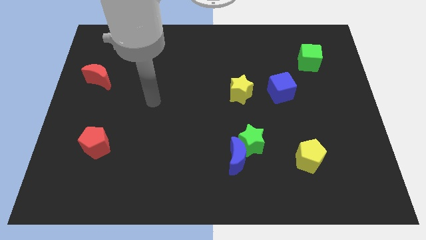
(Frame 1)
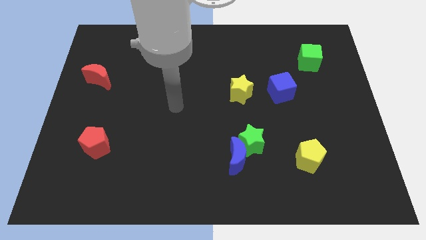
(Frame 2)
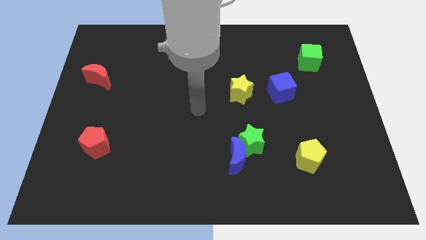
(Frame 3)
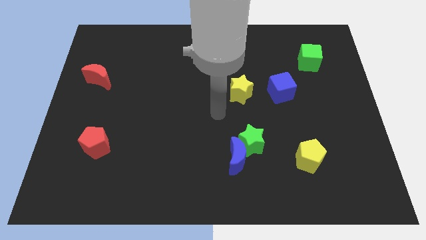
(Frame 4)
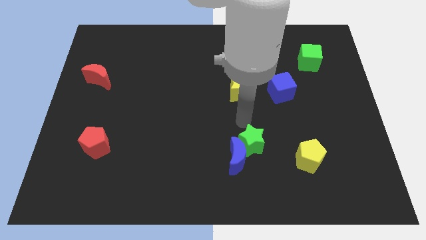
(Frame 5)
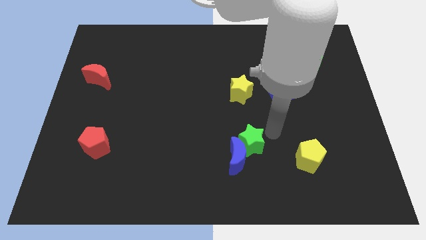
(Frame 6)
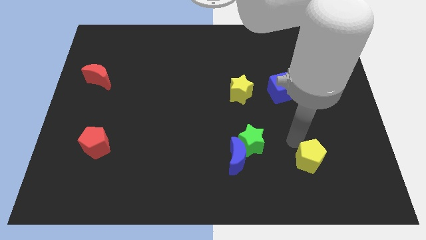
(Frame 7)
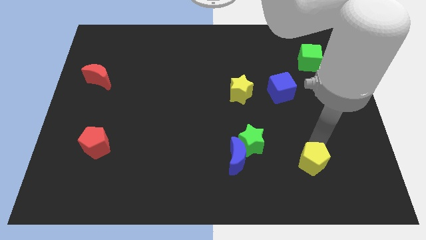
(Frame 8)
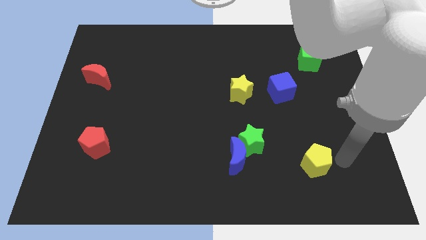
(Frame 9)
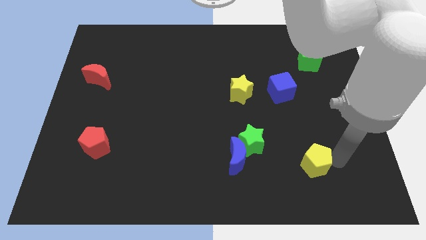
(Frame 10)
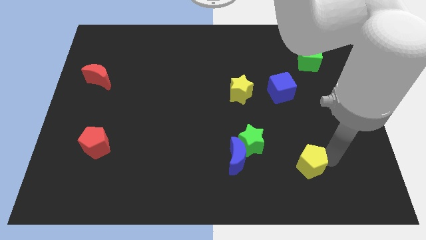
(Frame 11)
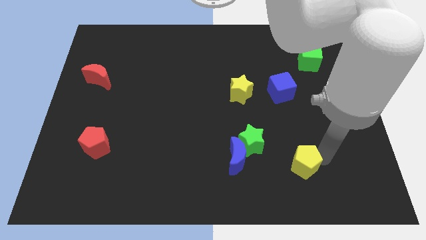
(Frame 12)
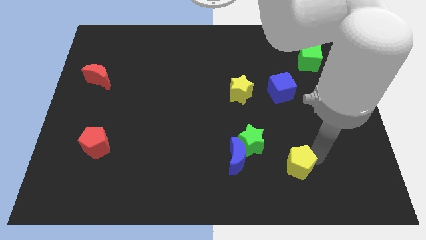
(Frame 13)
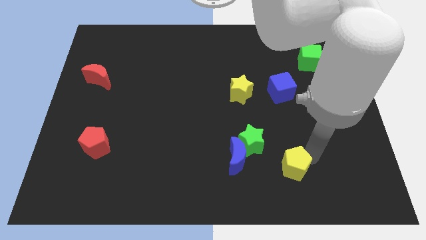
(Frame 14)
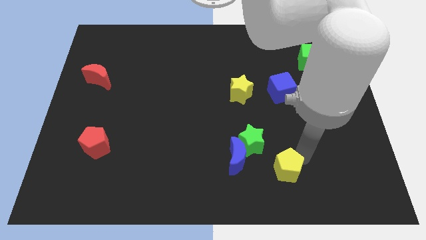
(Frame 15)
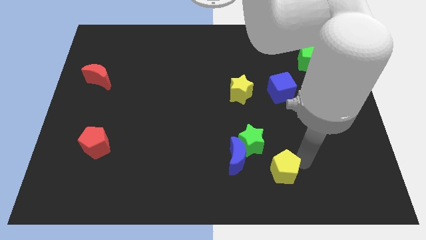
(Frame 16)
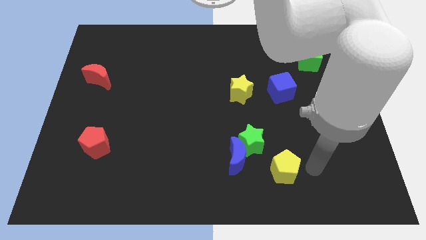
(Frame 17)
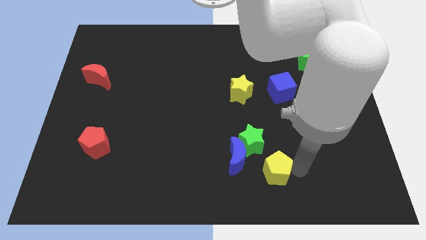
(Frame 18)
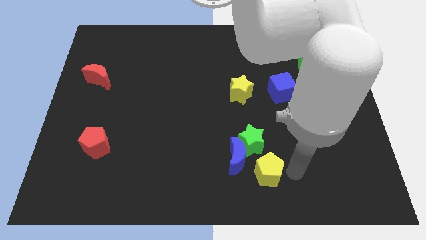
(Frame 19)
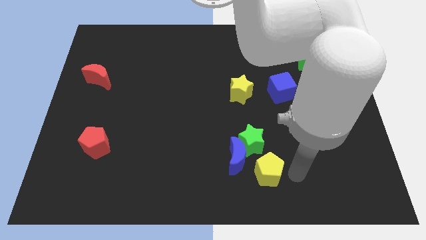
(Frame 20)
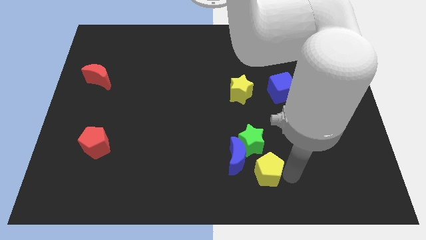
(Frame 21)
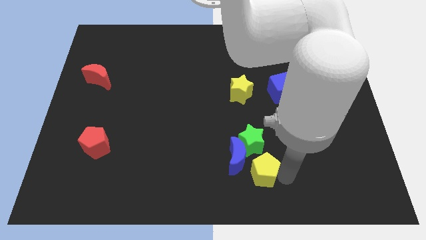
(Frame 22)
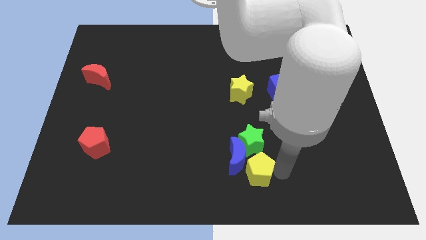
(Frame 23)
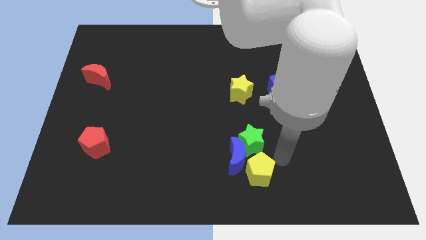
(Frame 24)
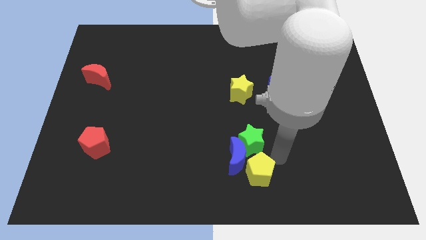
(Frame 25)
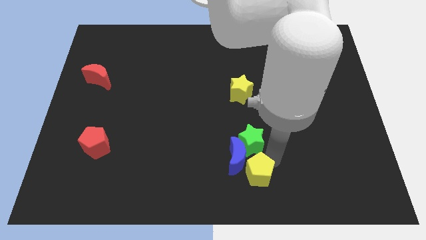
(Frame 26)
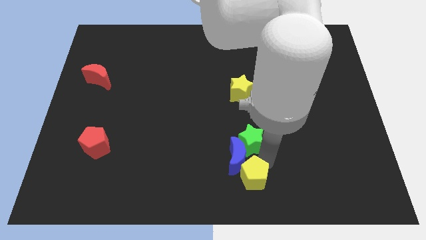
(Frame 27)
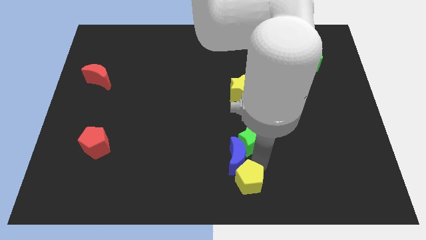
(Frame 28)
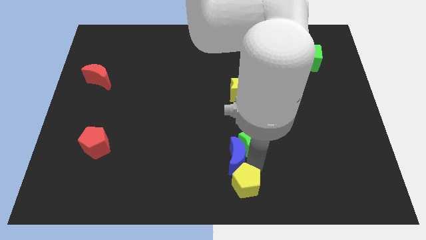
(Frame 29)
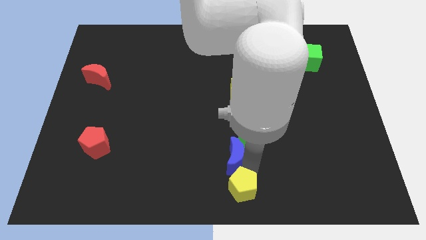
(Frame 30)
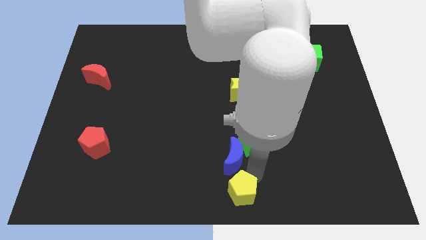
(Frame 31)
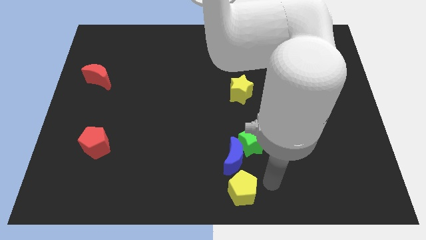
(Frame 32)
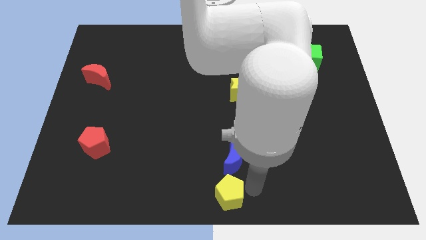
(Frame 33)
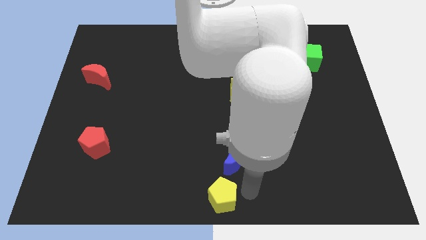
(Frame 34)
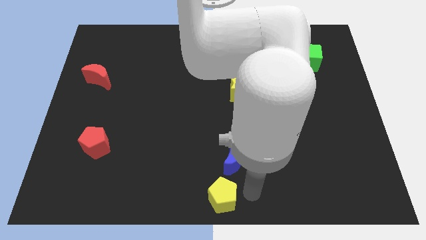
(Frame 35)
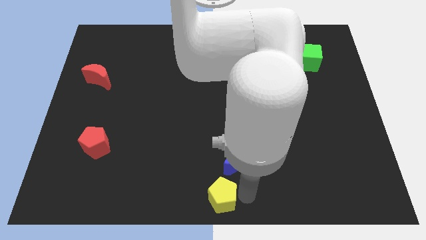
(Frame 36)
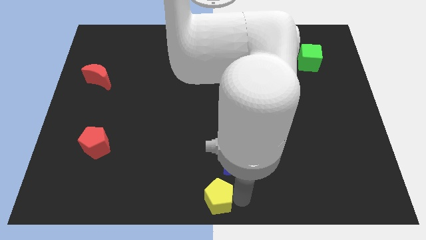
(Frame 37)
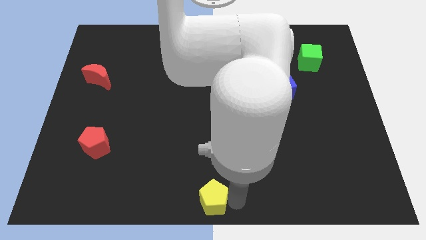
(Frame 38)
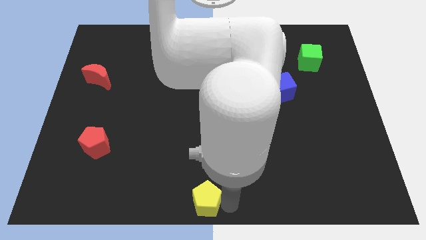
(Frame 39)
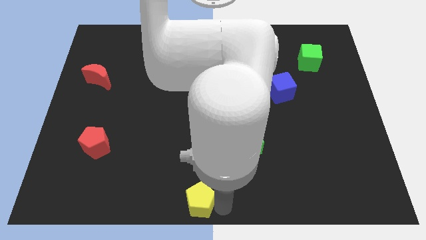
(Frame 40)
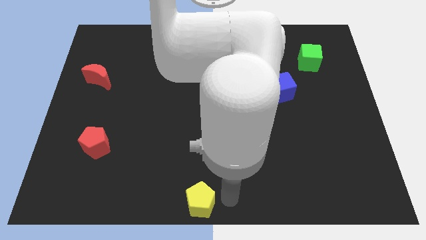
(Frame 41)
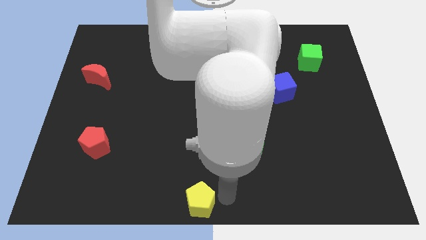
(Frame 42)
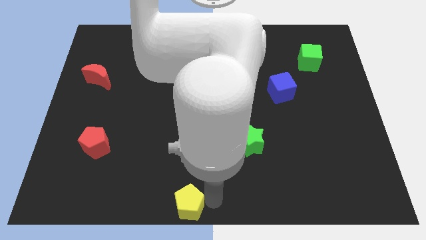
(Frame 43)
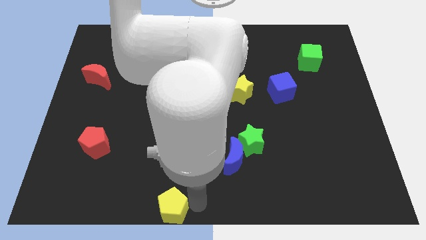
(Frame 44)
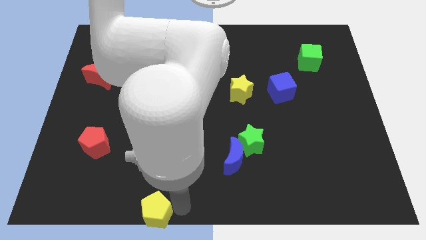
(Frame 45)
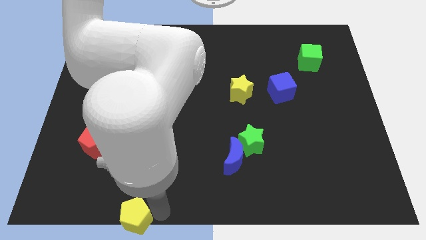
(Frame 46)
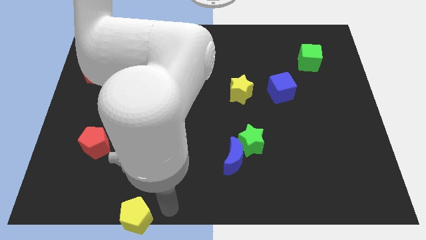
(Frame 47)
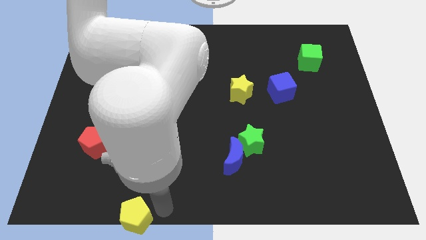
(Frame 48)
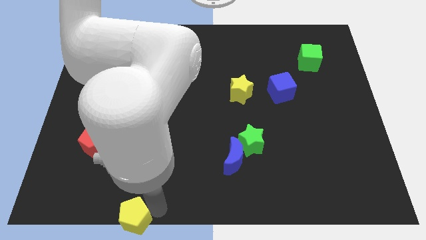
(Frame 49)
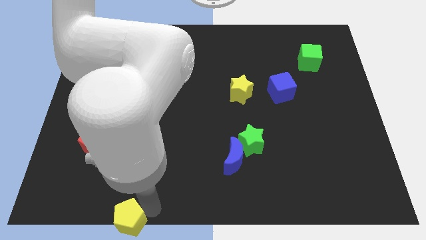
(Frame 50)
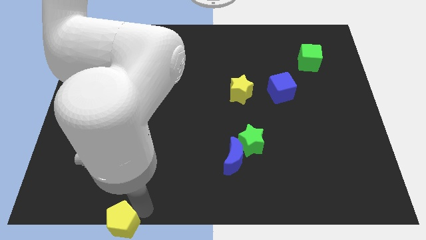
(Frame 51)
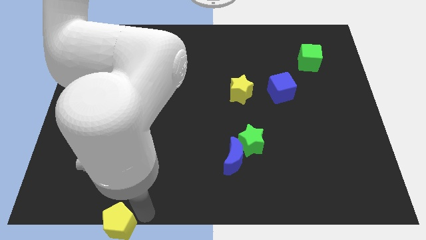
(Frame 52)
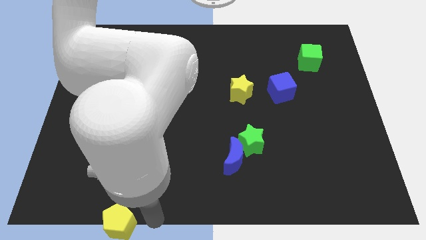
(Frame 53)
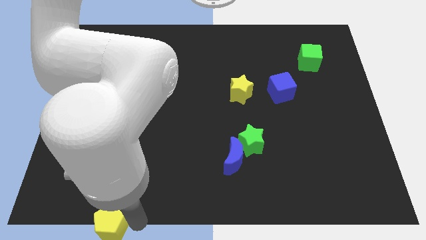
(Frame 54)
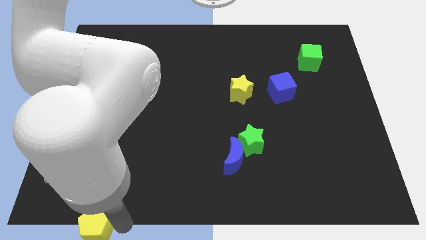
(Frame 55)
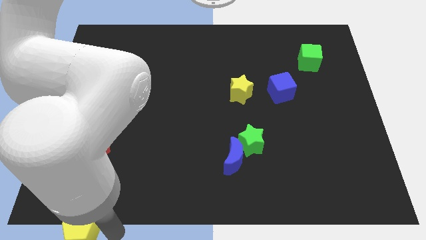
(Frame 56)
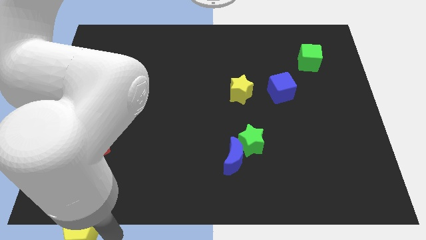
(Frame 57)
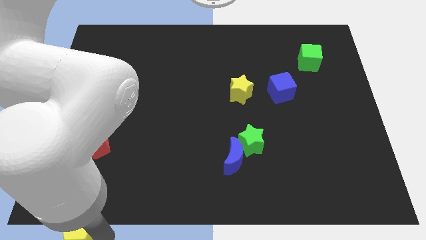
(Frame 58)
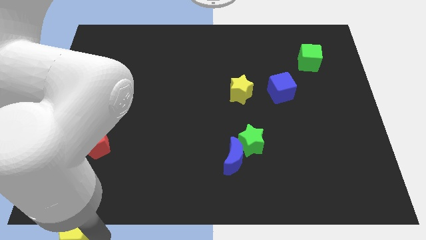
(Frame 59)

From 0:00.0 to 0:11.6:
push the yellow pentagon to the bottom left

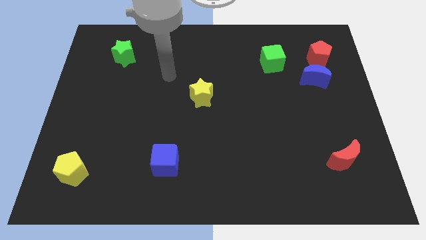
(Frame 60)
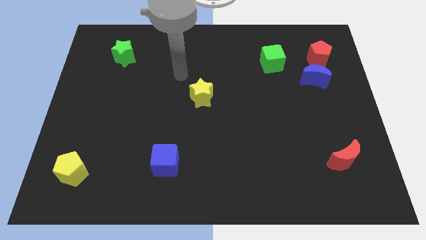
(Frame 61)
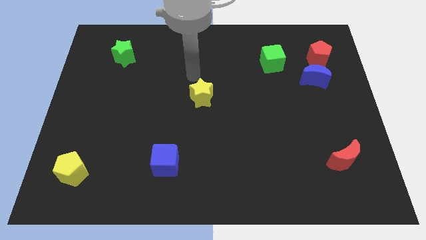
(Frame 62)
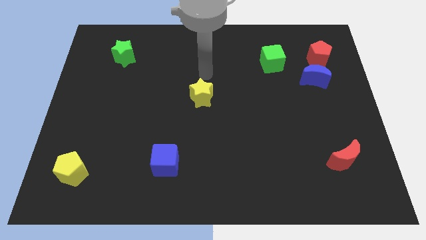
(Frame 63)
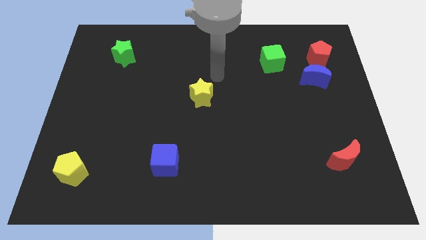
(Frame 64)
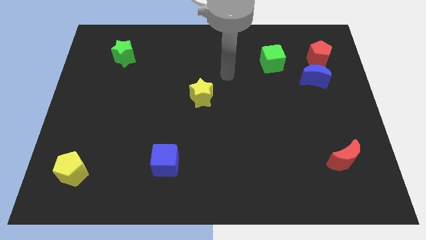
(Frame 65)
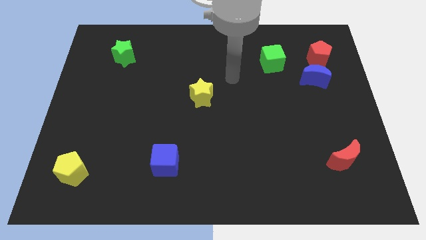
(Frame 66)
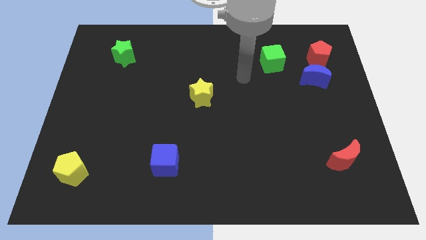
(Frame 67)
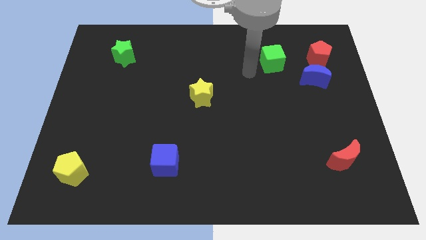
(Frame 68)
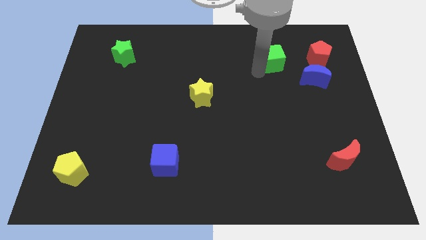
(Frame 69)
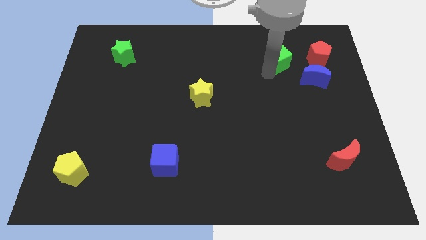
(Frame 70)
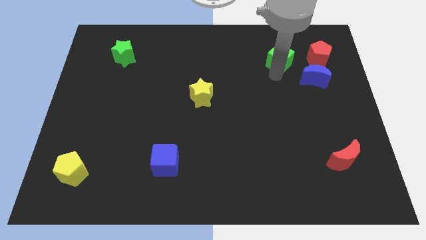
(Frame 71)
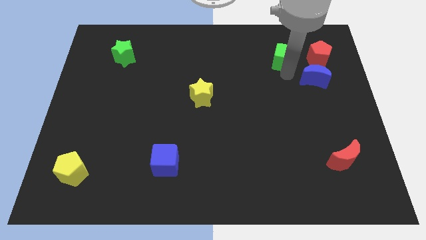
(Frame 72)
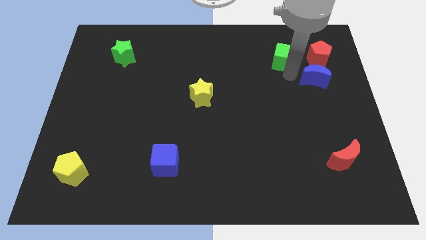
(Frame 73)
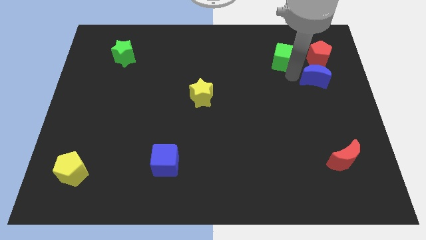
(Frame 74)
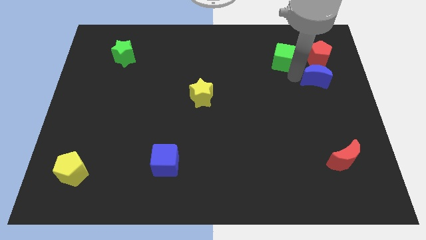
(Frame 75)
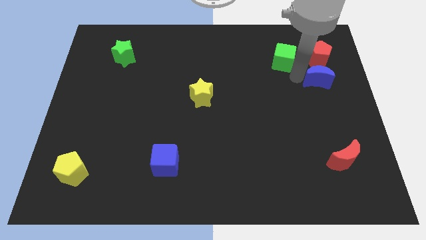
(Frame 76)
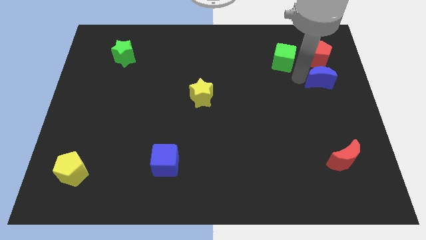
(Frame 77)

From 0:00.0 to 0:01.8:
move the blue moon to the right side of the board
